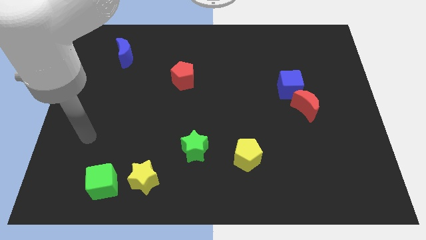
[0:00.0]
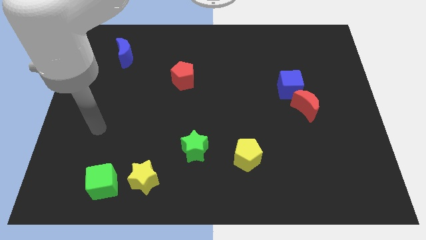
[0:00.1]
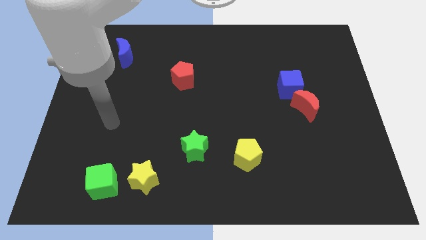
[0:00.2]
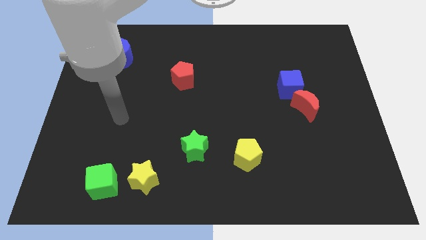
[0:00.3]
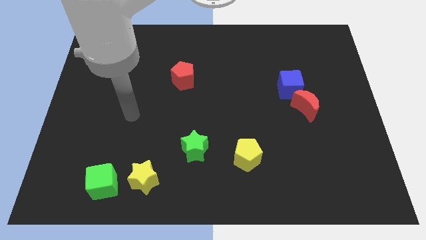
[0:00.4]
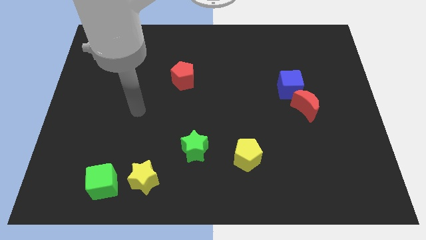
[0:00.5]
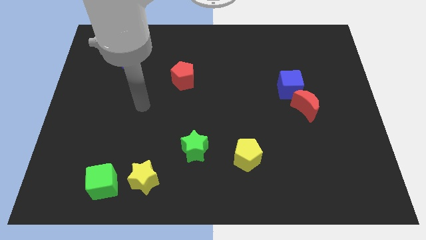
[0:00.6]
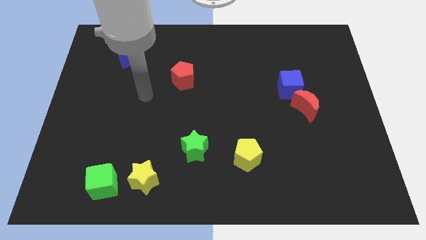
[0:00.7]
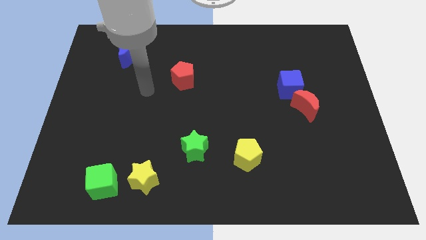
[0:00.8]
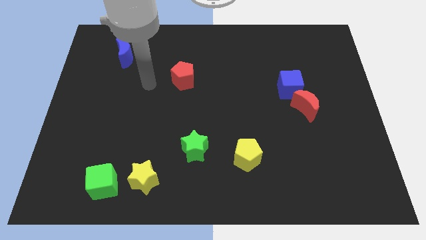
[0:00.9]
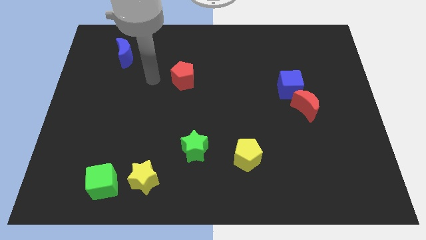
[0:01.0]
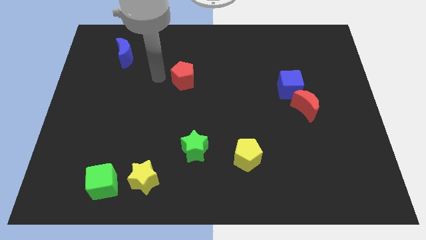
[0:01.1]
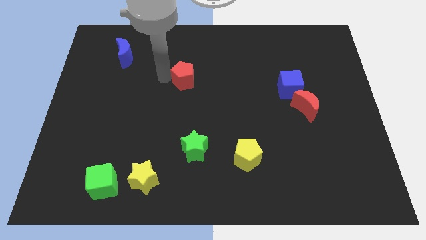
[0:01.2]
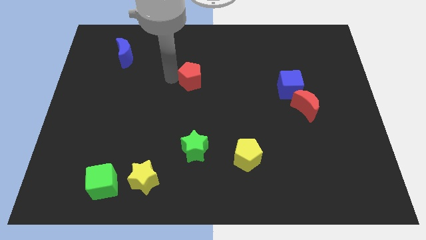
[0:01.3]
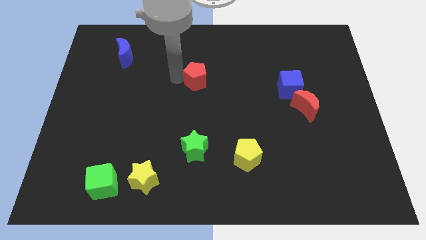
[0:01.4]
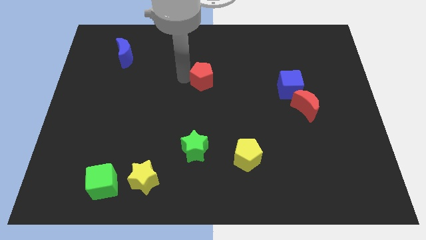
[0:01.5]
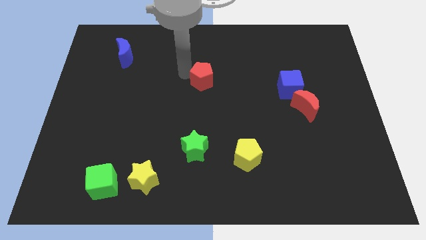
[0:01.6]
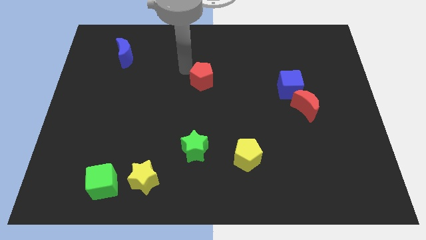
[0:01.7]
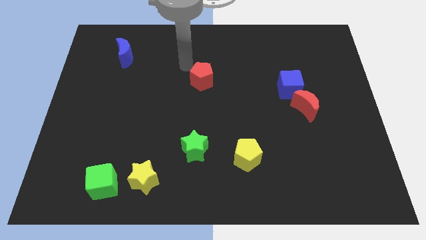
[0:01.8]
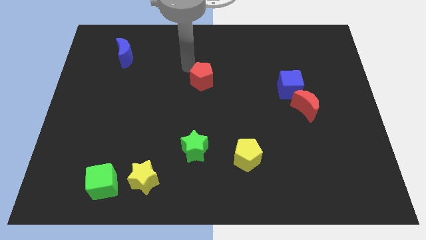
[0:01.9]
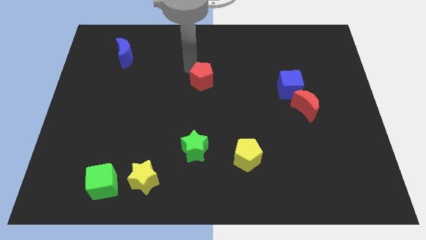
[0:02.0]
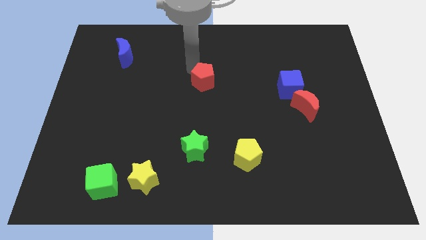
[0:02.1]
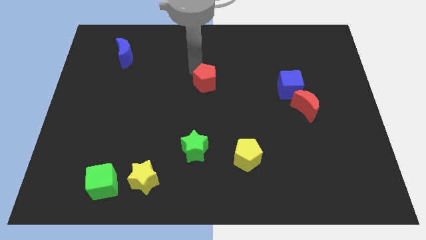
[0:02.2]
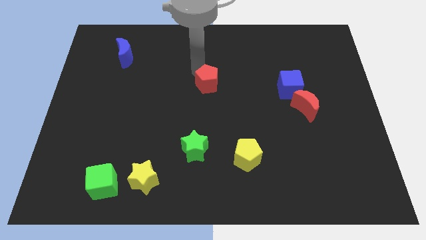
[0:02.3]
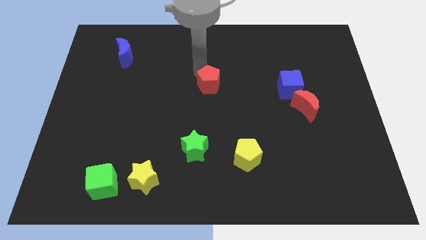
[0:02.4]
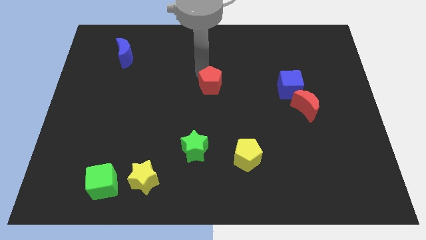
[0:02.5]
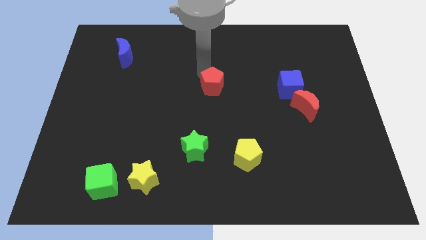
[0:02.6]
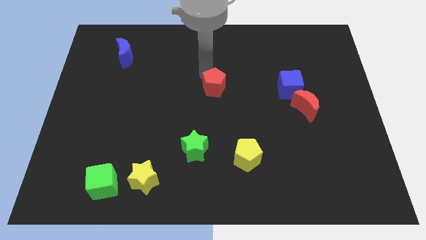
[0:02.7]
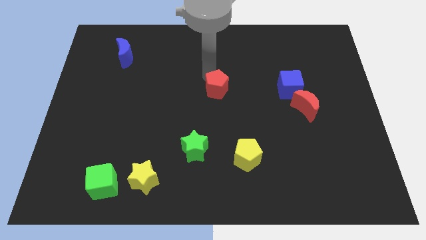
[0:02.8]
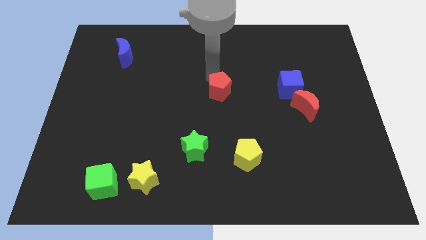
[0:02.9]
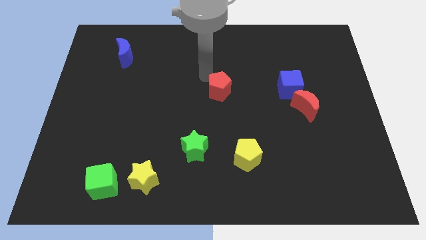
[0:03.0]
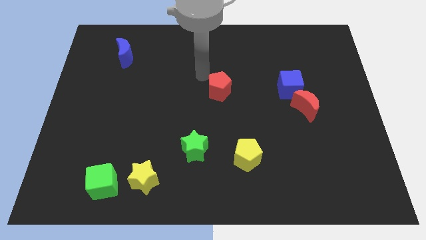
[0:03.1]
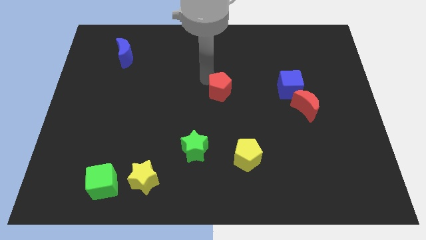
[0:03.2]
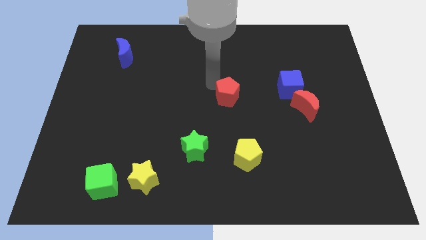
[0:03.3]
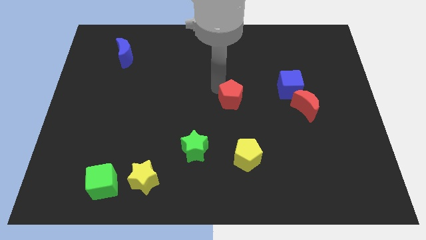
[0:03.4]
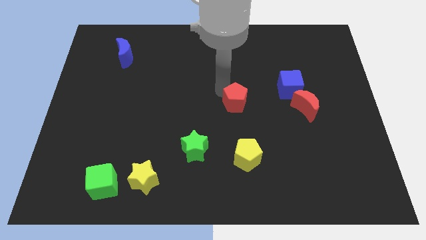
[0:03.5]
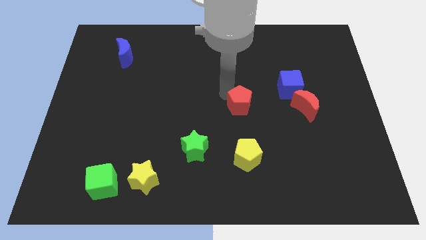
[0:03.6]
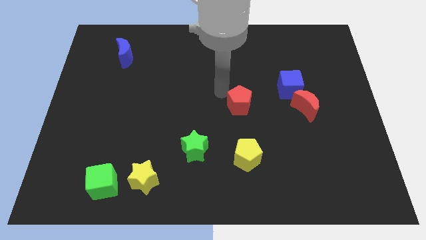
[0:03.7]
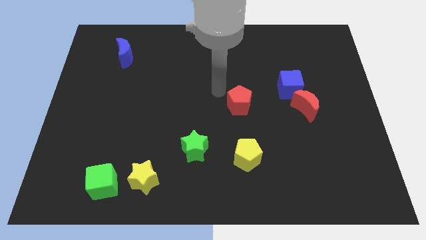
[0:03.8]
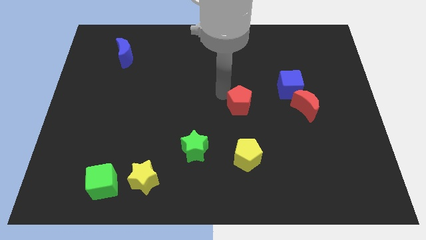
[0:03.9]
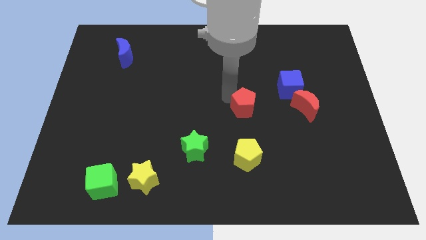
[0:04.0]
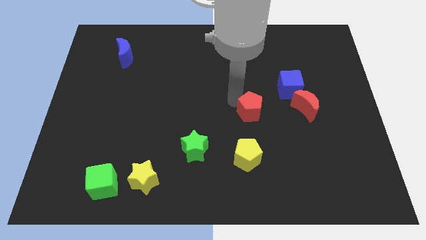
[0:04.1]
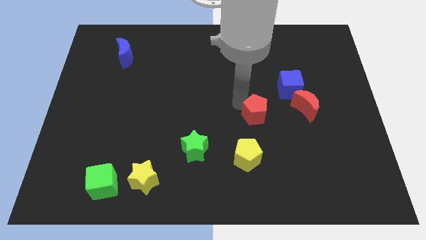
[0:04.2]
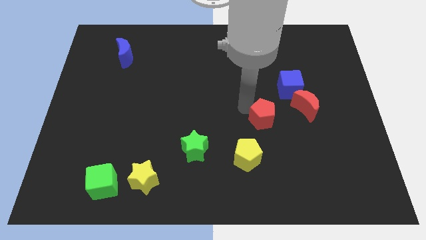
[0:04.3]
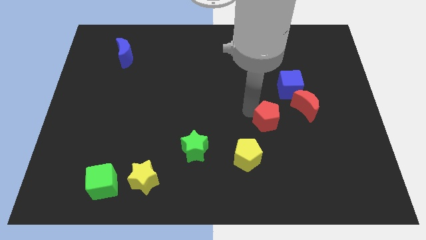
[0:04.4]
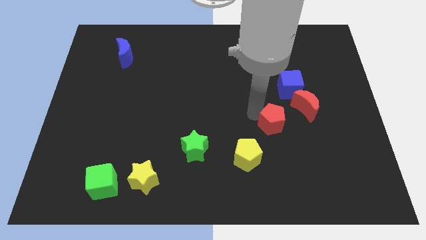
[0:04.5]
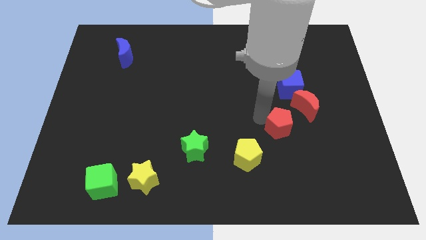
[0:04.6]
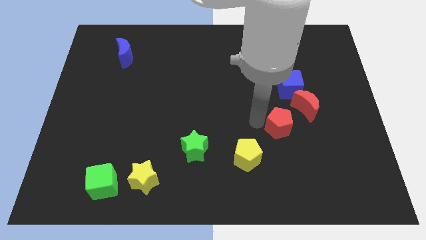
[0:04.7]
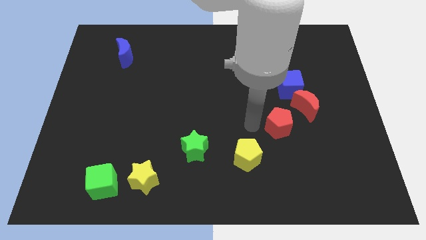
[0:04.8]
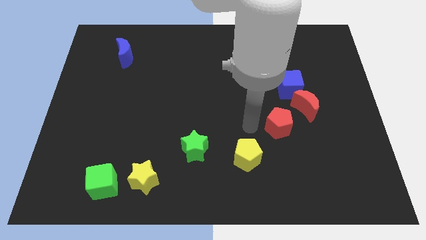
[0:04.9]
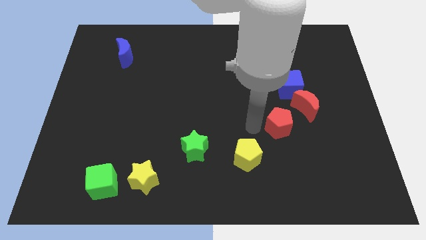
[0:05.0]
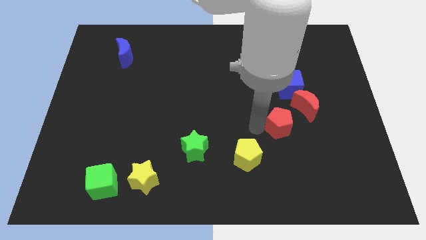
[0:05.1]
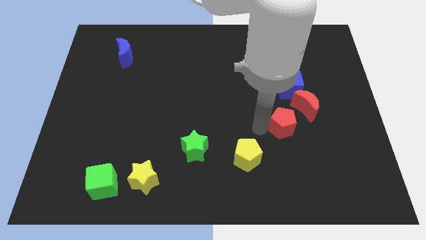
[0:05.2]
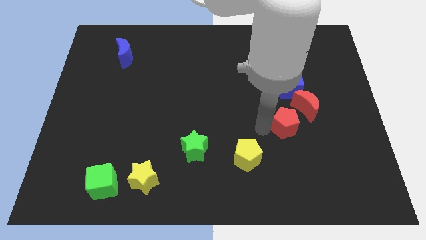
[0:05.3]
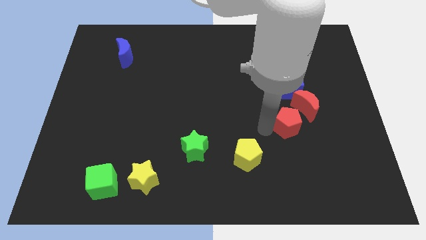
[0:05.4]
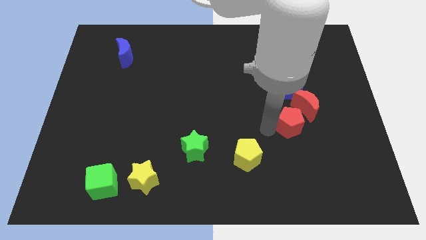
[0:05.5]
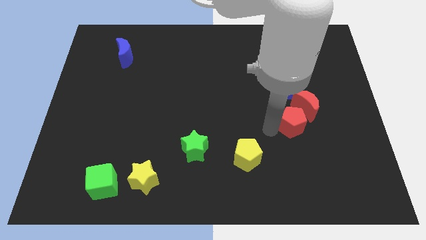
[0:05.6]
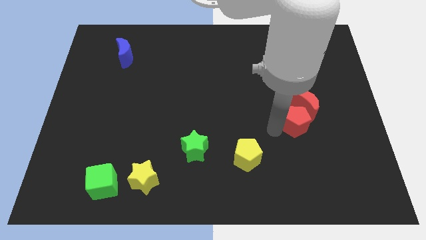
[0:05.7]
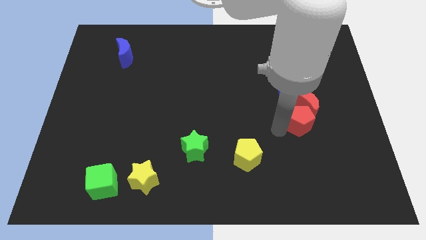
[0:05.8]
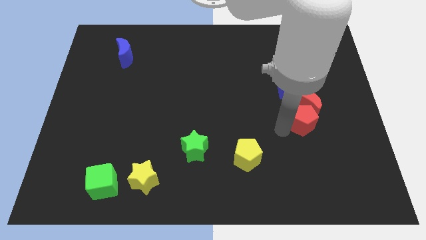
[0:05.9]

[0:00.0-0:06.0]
push the red pentagon diagonally down and to the right of the red moon

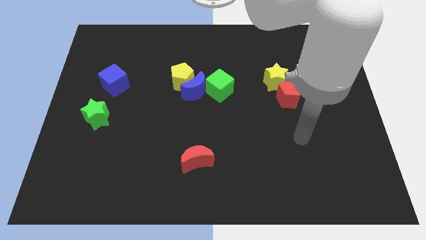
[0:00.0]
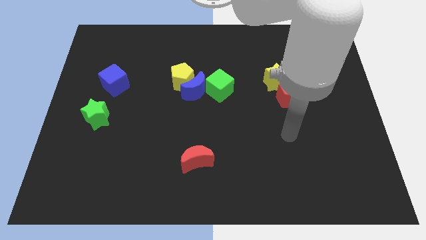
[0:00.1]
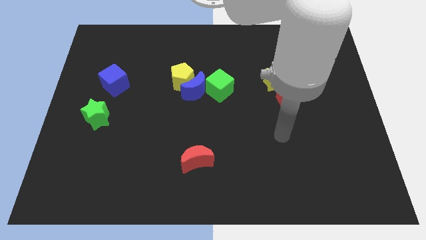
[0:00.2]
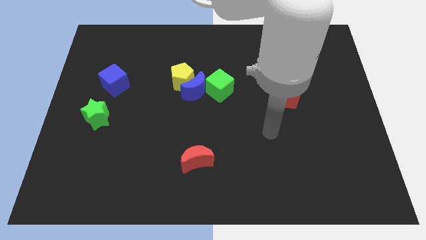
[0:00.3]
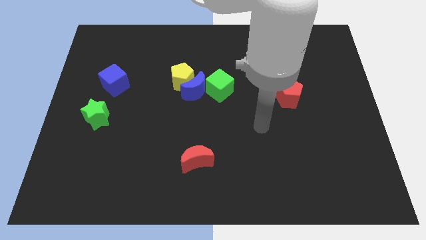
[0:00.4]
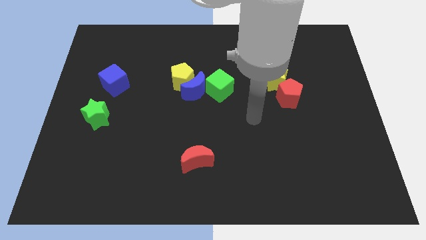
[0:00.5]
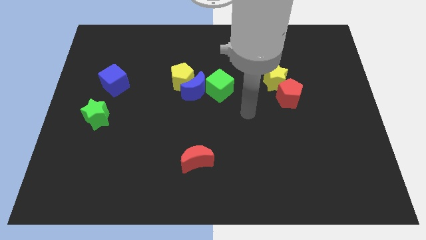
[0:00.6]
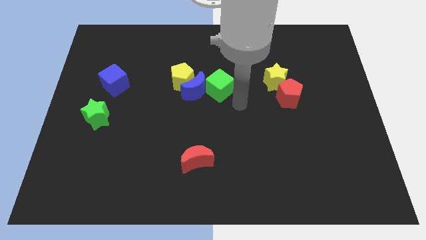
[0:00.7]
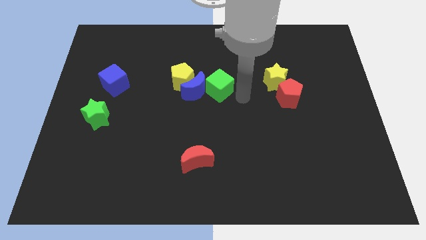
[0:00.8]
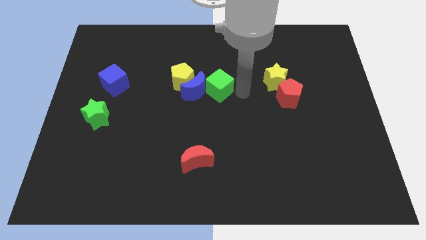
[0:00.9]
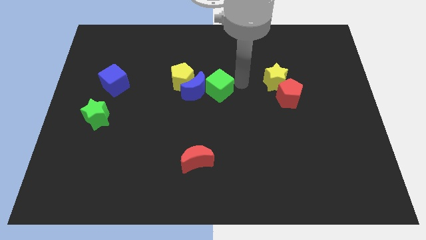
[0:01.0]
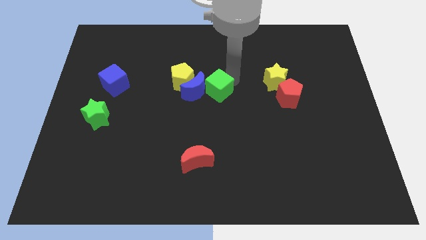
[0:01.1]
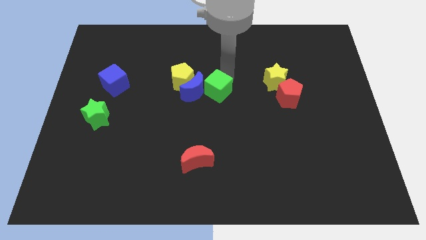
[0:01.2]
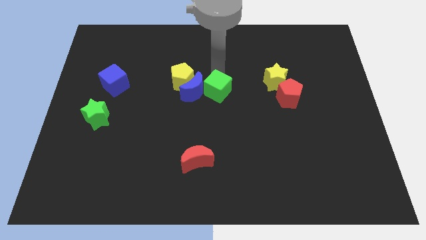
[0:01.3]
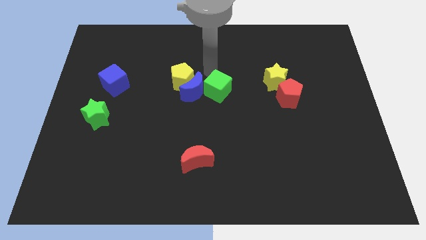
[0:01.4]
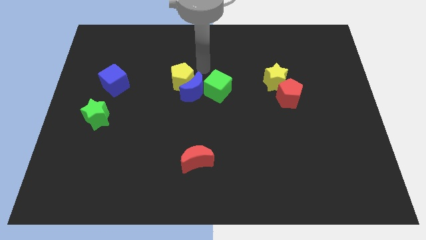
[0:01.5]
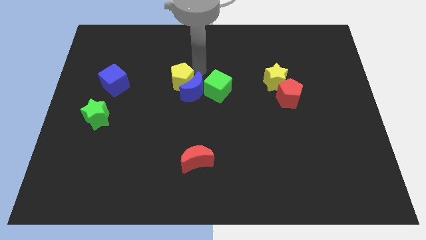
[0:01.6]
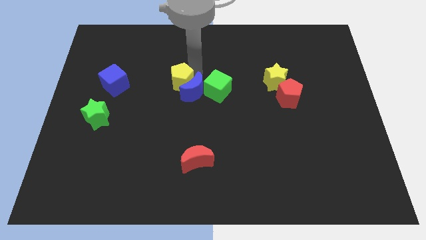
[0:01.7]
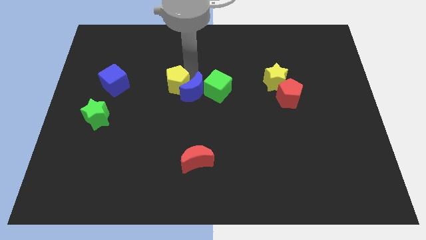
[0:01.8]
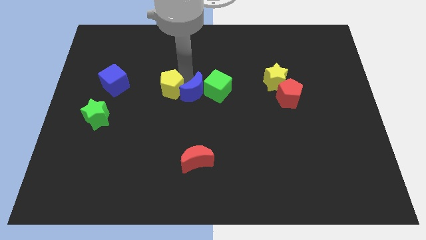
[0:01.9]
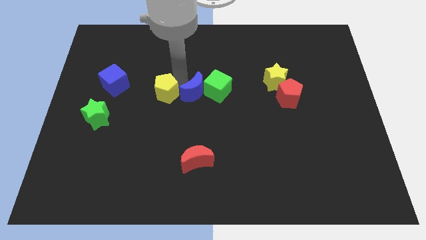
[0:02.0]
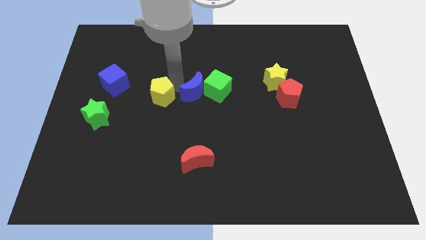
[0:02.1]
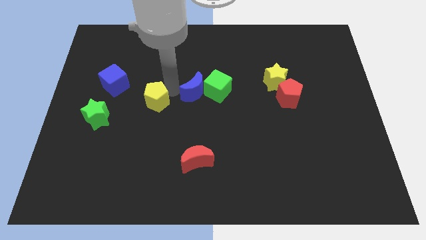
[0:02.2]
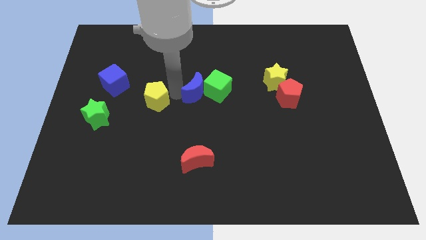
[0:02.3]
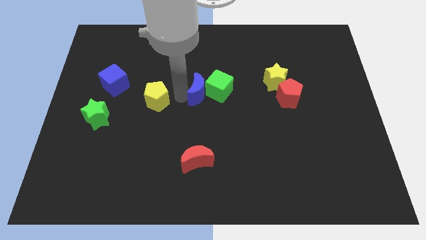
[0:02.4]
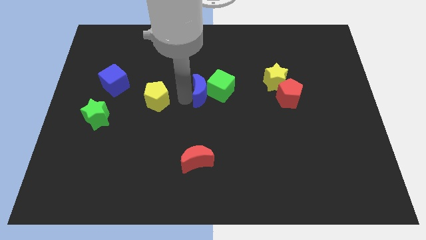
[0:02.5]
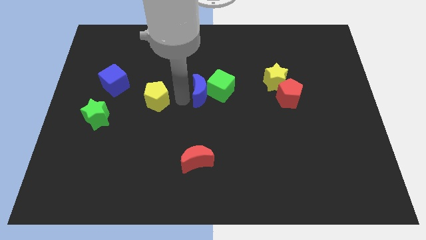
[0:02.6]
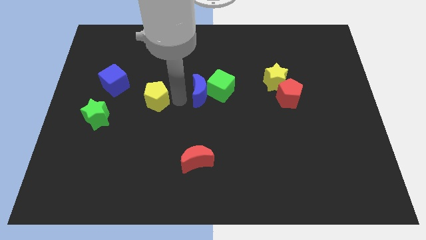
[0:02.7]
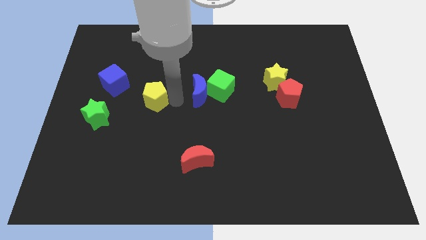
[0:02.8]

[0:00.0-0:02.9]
put the yellow pentagon to the bottom right side of the blue cube
